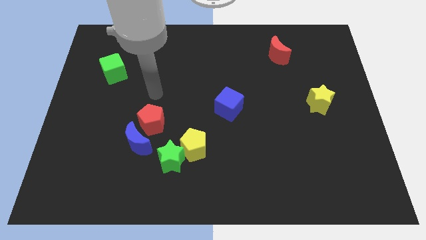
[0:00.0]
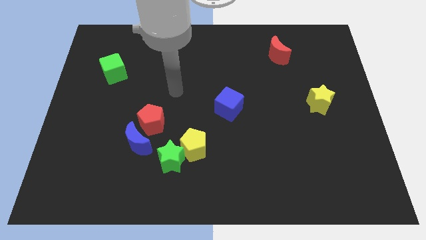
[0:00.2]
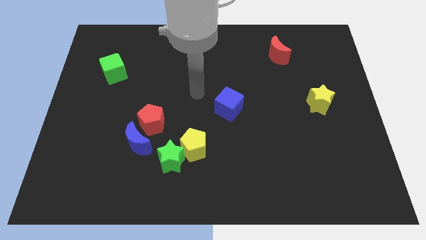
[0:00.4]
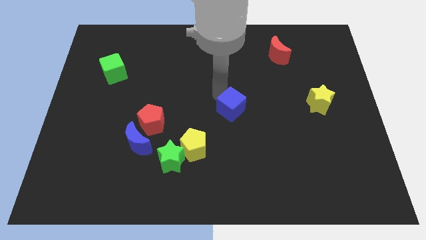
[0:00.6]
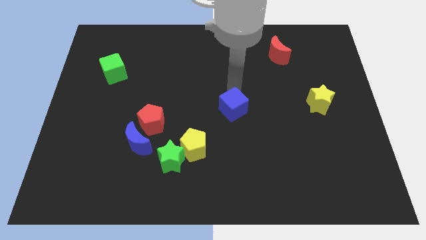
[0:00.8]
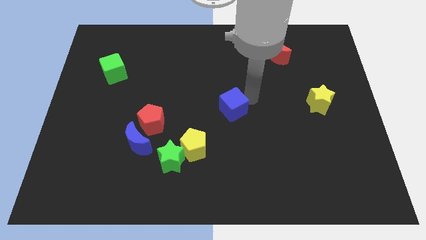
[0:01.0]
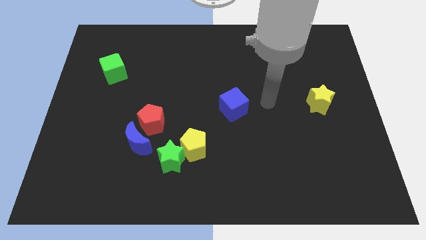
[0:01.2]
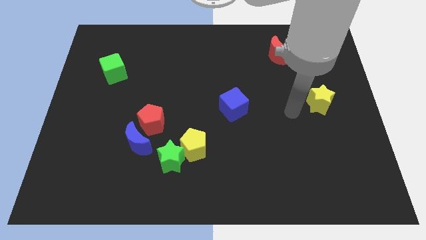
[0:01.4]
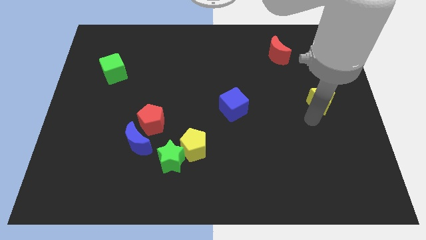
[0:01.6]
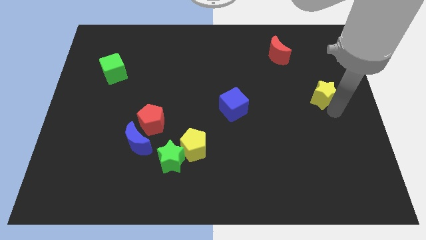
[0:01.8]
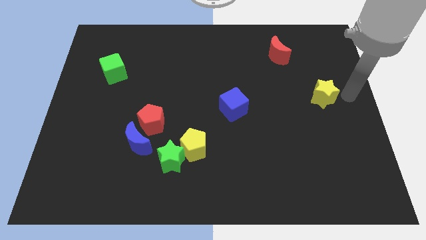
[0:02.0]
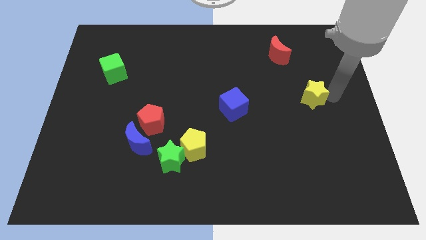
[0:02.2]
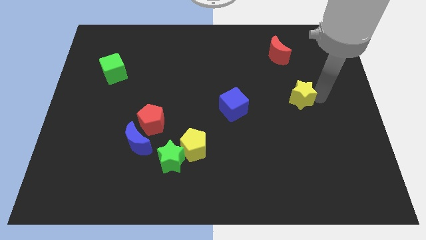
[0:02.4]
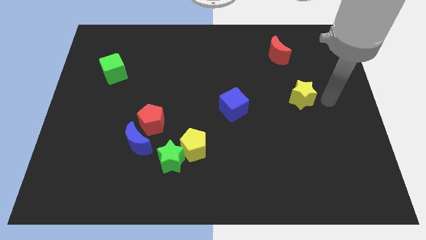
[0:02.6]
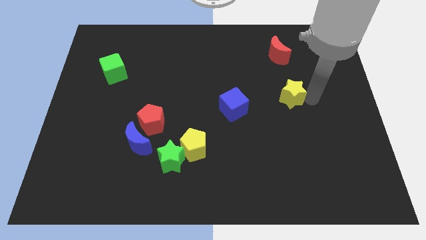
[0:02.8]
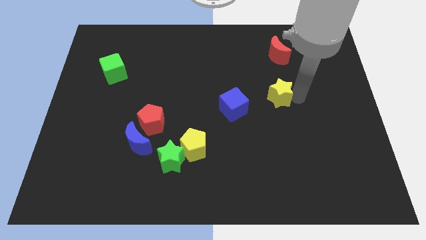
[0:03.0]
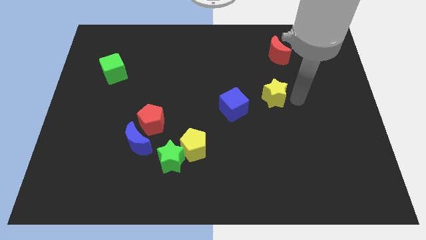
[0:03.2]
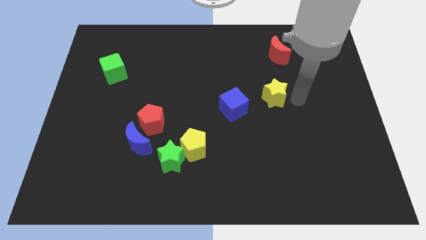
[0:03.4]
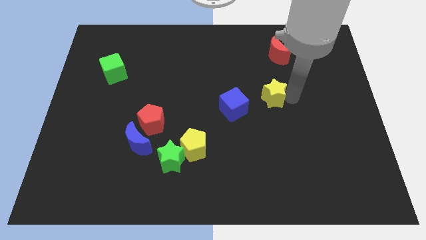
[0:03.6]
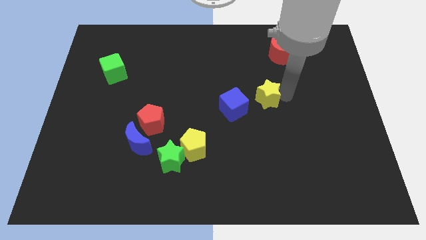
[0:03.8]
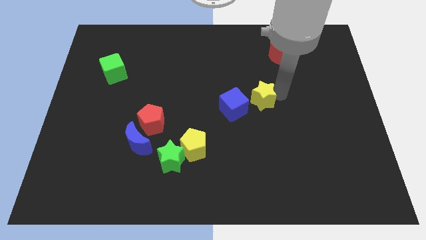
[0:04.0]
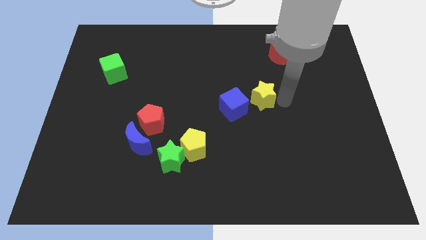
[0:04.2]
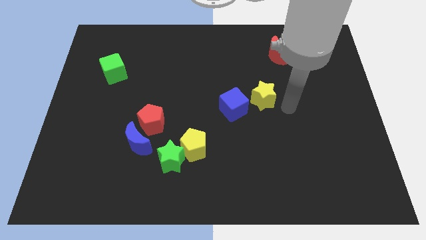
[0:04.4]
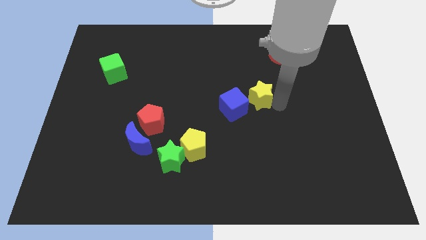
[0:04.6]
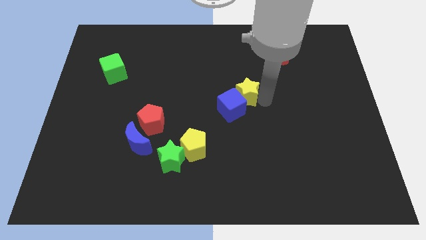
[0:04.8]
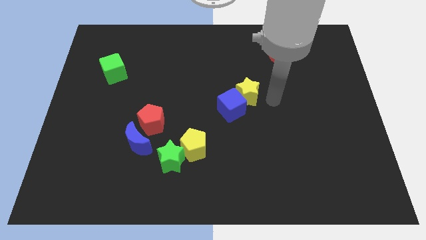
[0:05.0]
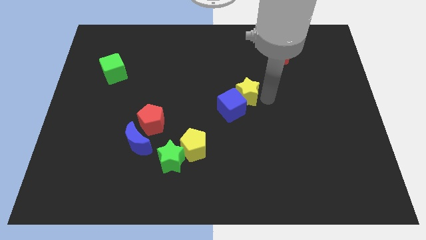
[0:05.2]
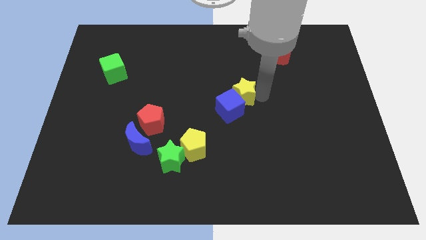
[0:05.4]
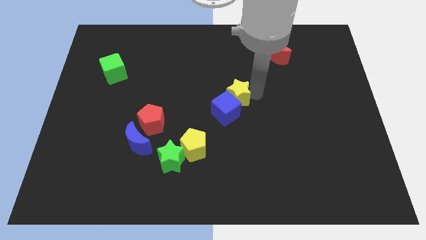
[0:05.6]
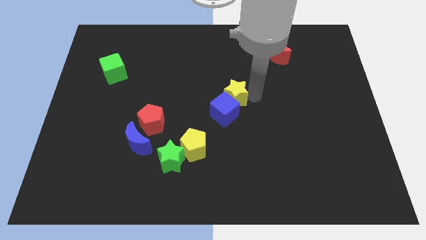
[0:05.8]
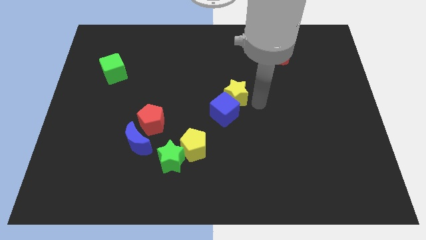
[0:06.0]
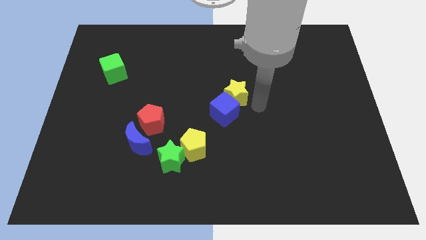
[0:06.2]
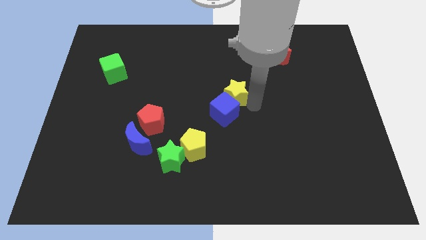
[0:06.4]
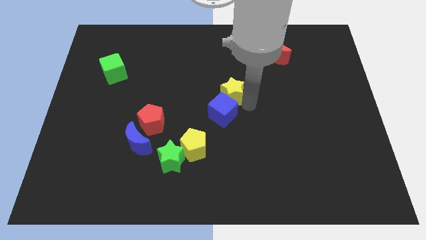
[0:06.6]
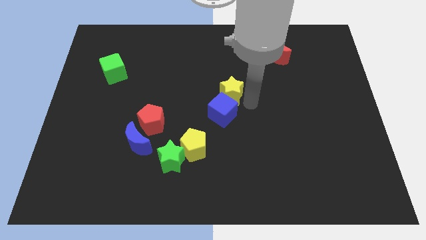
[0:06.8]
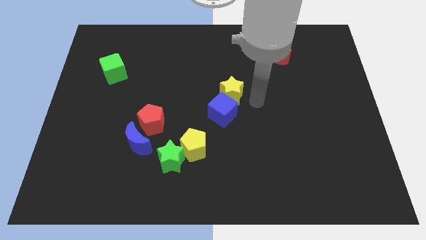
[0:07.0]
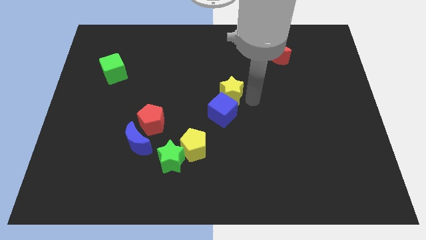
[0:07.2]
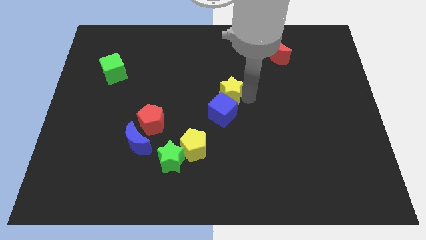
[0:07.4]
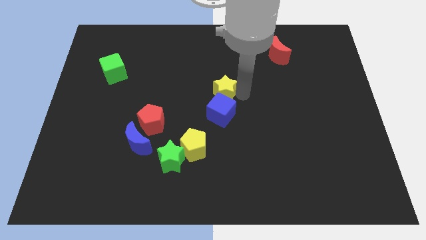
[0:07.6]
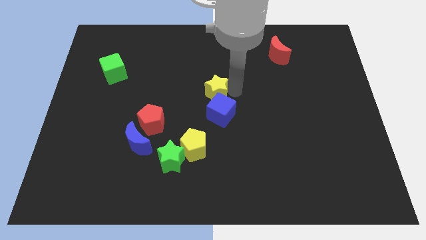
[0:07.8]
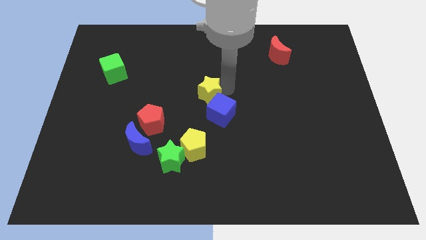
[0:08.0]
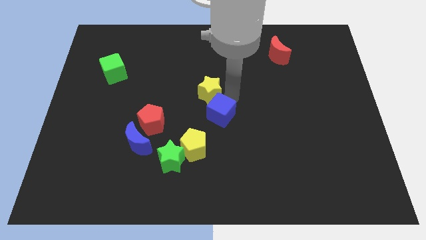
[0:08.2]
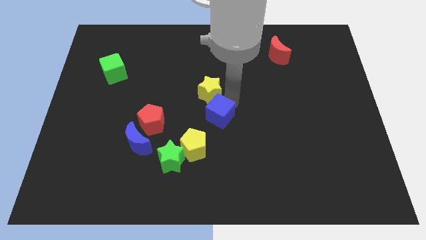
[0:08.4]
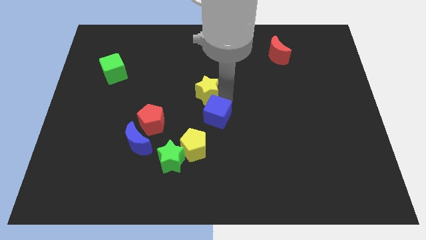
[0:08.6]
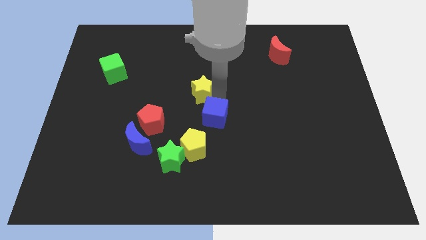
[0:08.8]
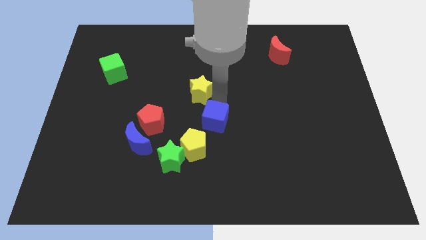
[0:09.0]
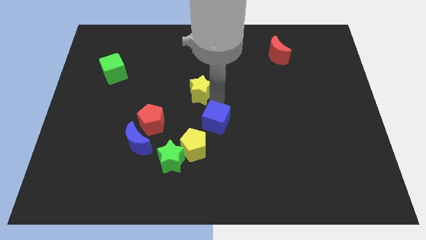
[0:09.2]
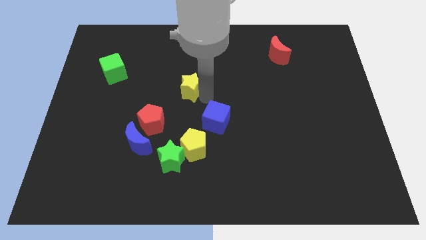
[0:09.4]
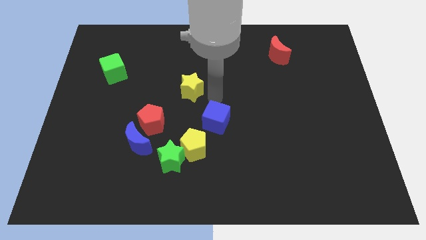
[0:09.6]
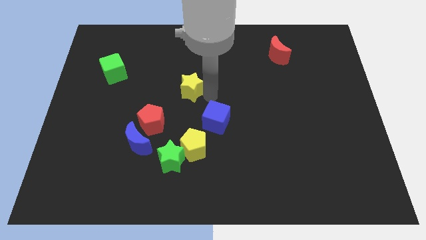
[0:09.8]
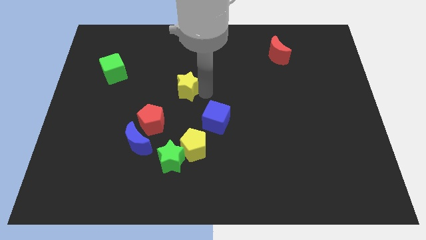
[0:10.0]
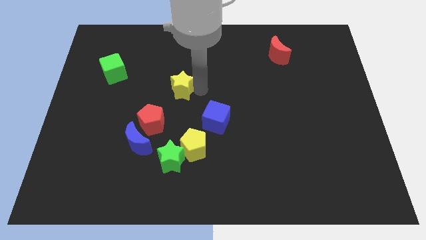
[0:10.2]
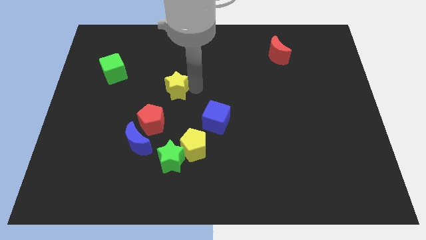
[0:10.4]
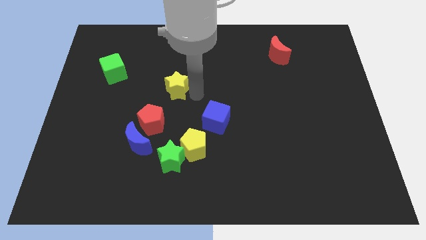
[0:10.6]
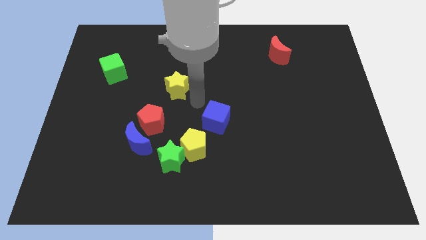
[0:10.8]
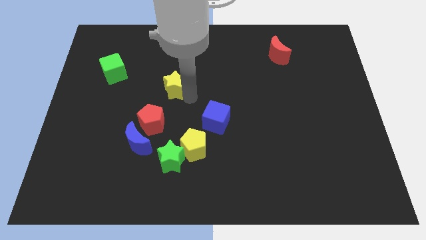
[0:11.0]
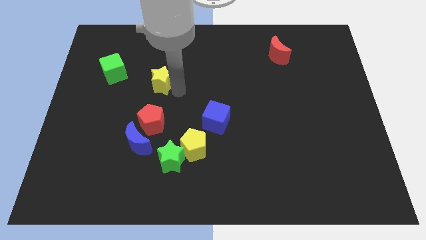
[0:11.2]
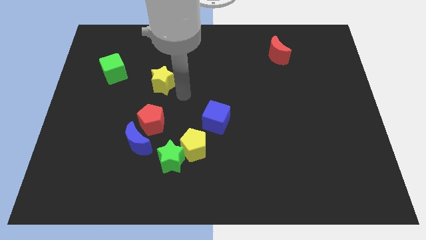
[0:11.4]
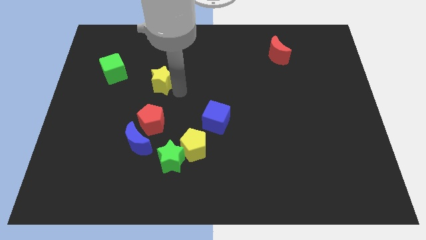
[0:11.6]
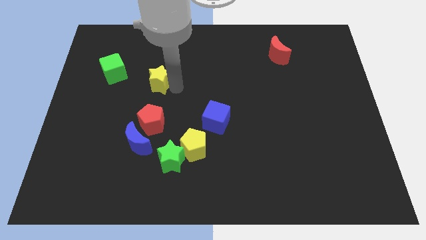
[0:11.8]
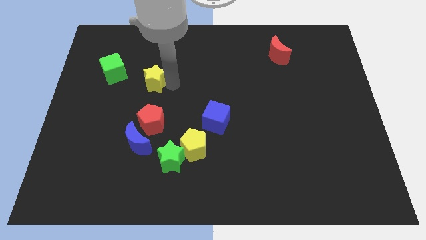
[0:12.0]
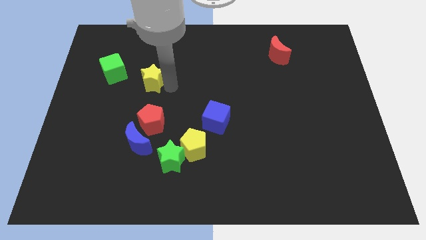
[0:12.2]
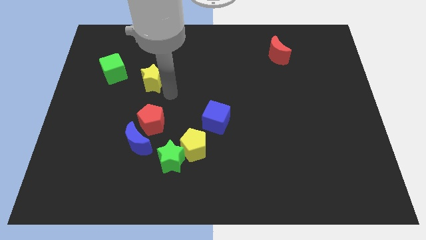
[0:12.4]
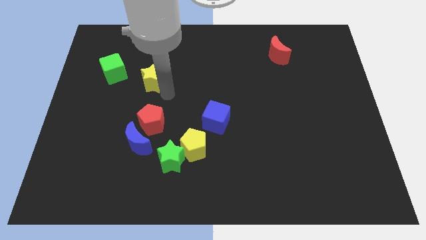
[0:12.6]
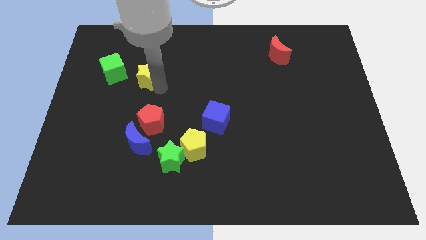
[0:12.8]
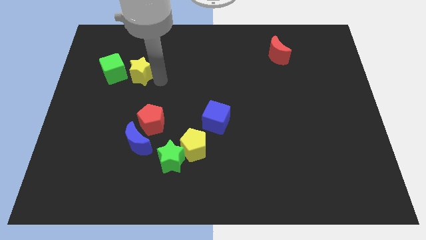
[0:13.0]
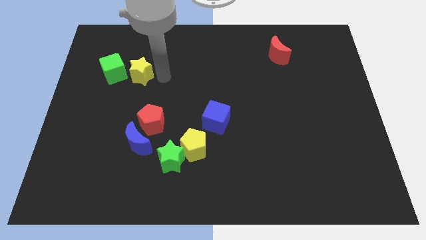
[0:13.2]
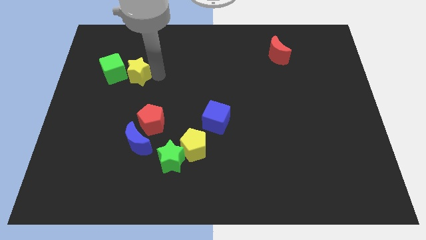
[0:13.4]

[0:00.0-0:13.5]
put the yellow star next to the green cube

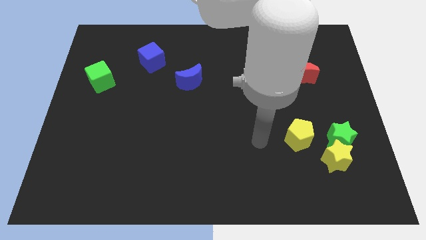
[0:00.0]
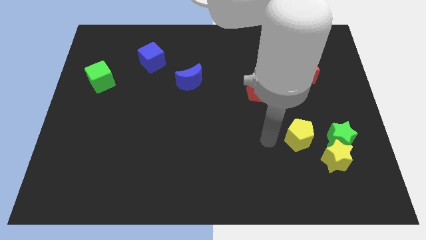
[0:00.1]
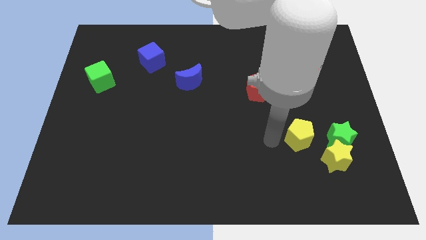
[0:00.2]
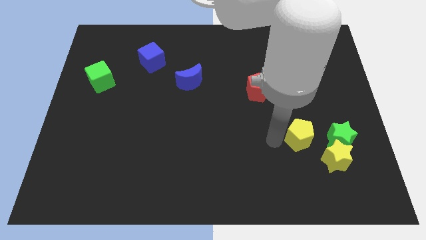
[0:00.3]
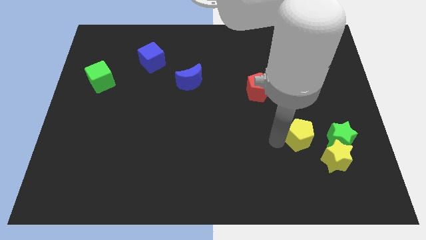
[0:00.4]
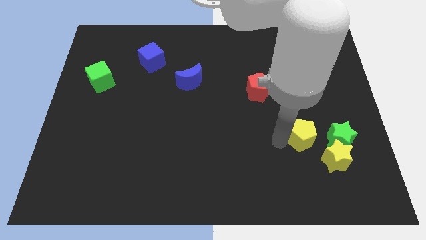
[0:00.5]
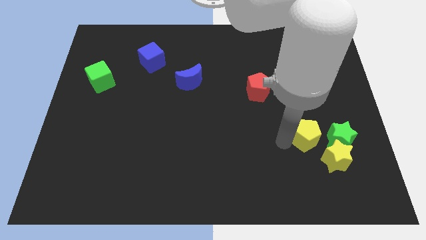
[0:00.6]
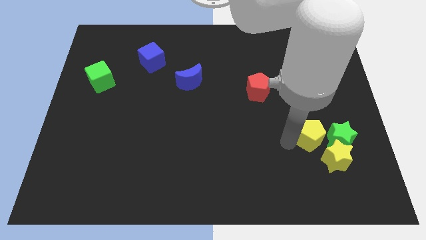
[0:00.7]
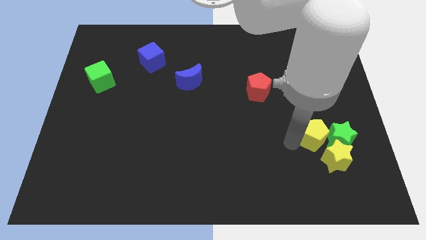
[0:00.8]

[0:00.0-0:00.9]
push the yellow pentagon towards the green star
